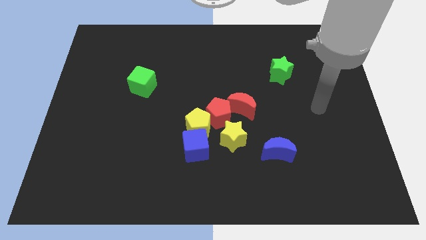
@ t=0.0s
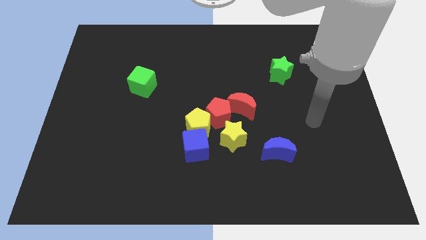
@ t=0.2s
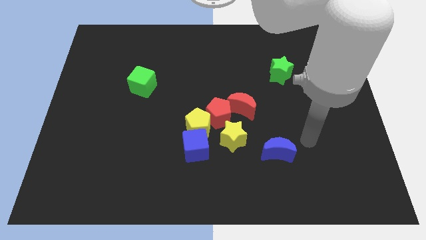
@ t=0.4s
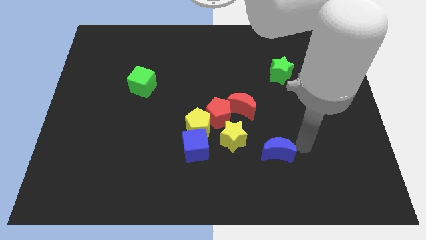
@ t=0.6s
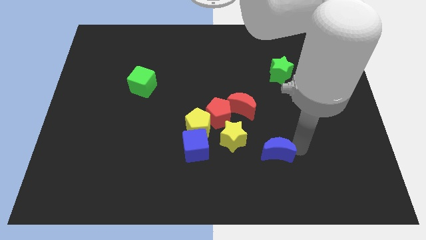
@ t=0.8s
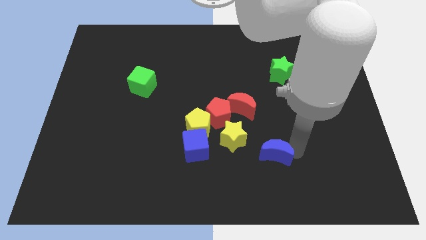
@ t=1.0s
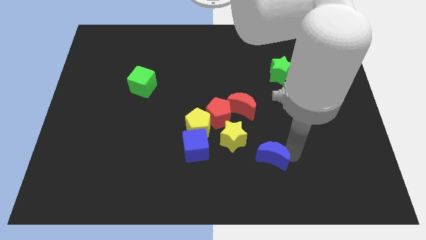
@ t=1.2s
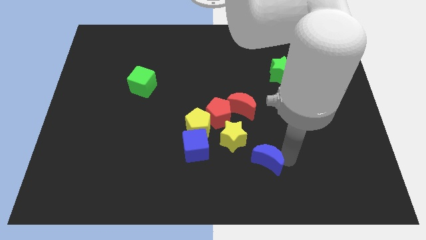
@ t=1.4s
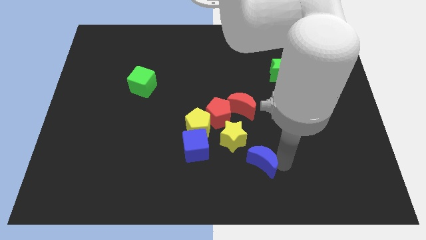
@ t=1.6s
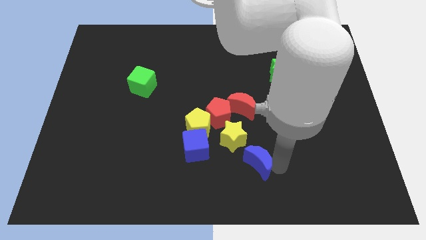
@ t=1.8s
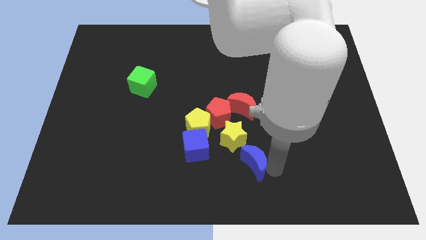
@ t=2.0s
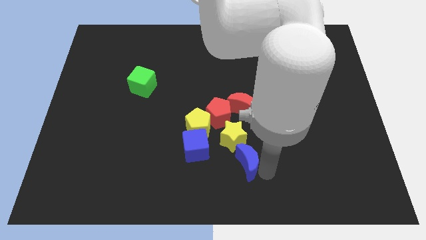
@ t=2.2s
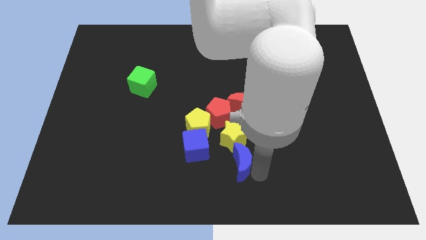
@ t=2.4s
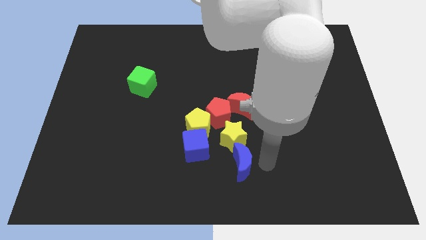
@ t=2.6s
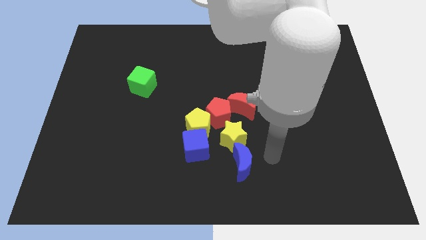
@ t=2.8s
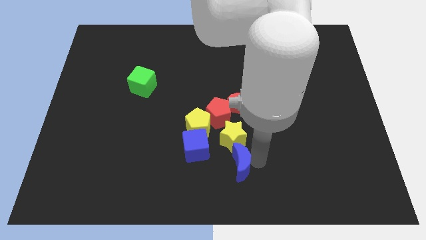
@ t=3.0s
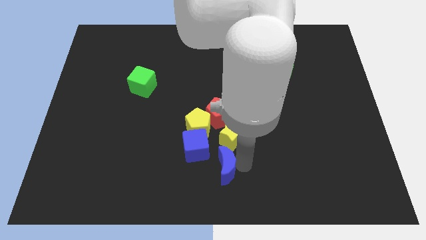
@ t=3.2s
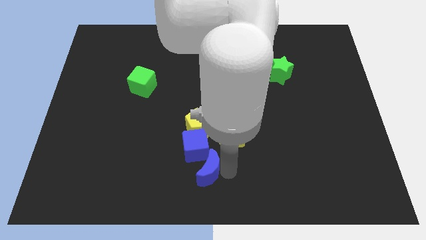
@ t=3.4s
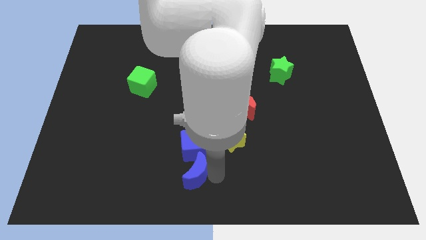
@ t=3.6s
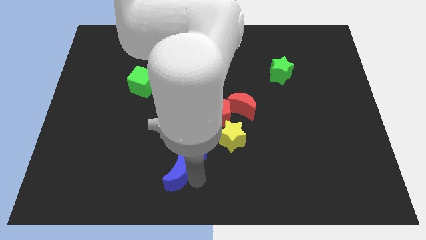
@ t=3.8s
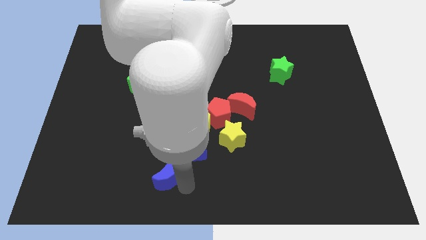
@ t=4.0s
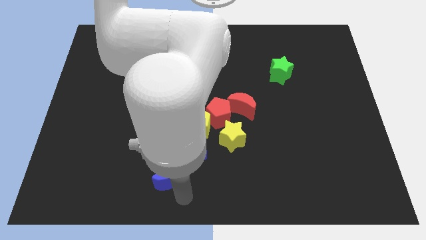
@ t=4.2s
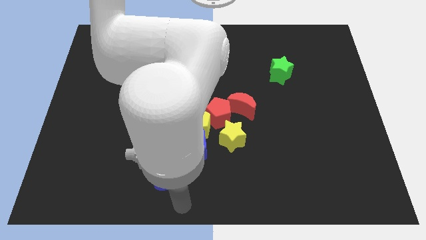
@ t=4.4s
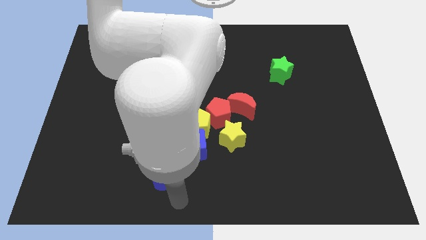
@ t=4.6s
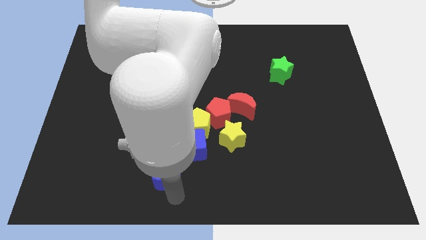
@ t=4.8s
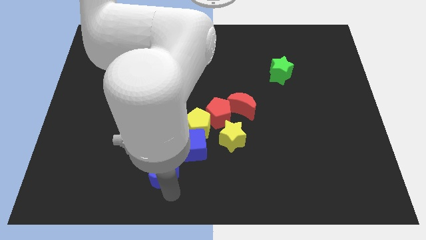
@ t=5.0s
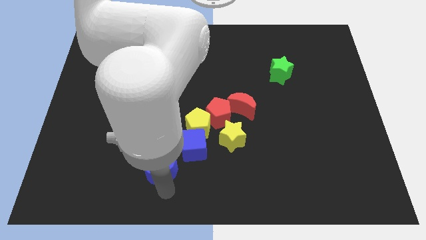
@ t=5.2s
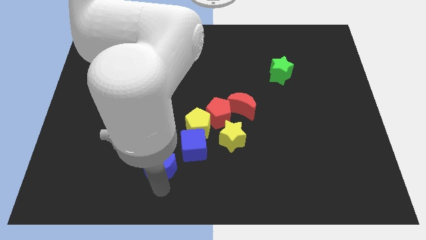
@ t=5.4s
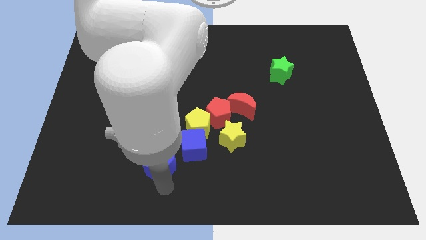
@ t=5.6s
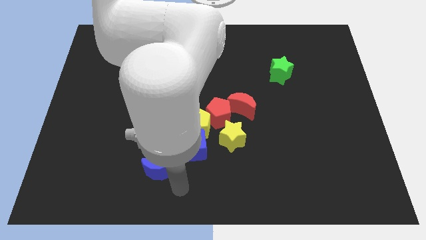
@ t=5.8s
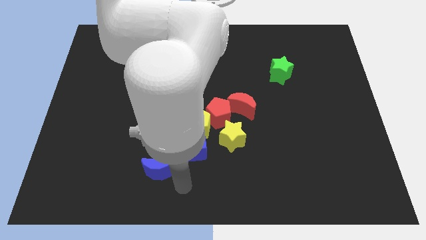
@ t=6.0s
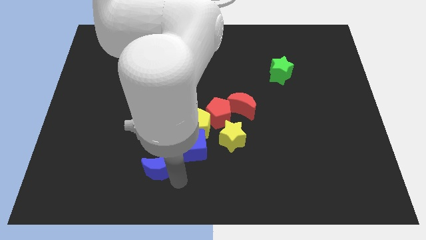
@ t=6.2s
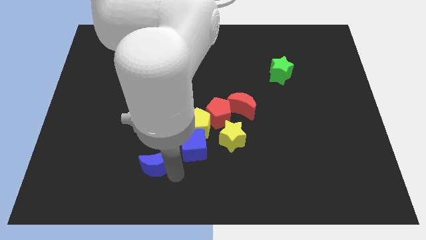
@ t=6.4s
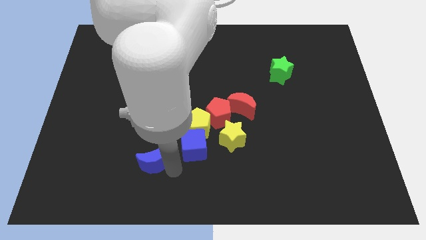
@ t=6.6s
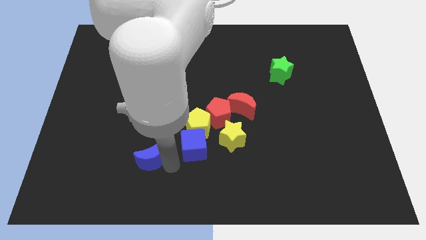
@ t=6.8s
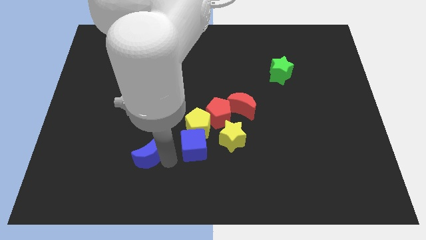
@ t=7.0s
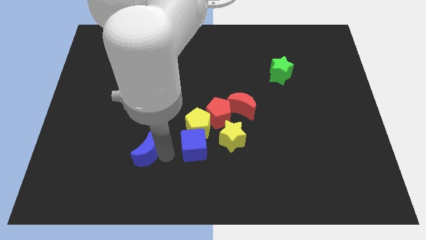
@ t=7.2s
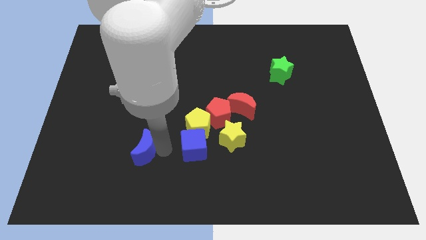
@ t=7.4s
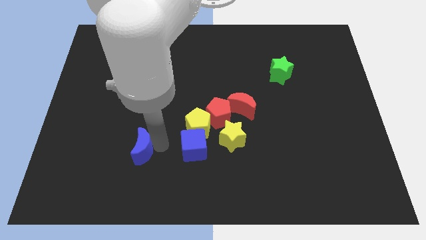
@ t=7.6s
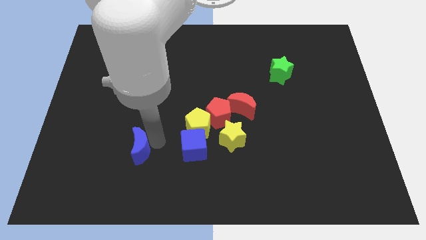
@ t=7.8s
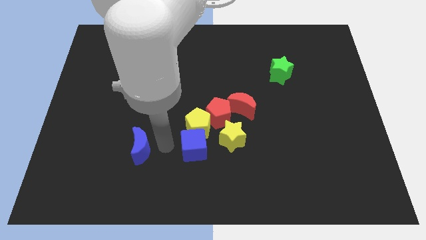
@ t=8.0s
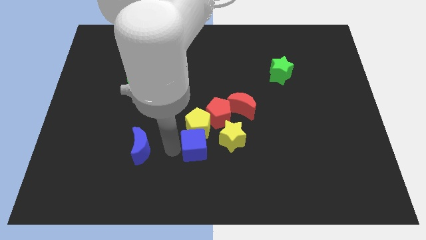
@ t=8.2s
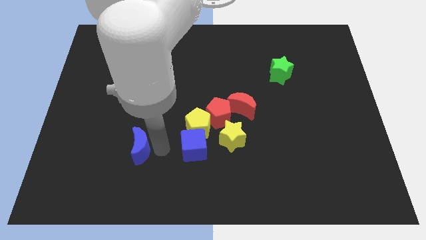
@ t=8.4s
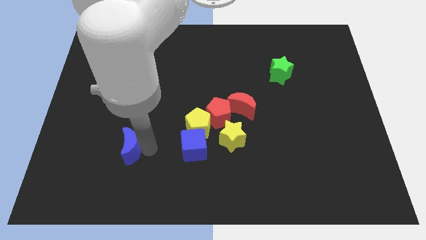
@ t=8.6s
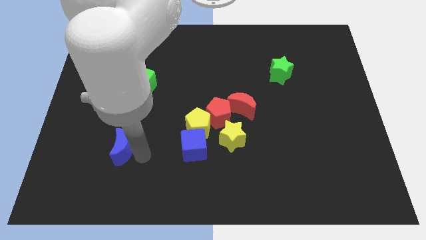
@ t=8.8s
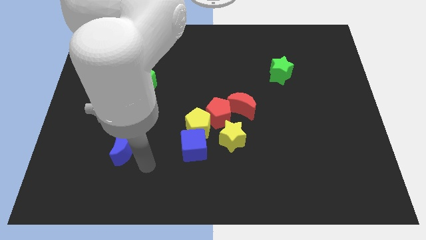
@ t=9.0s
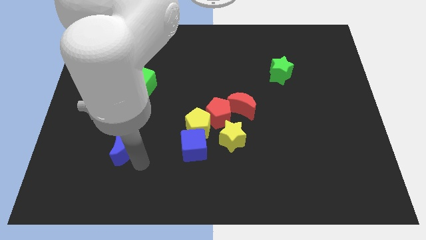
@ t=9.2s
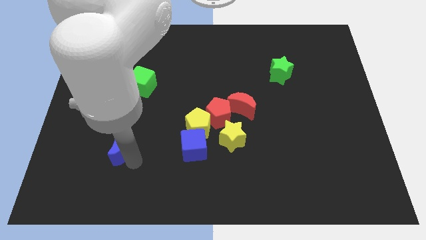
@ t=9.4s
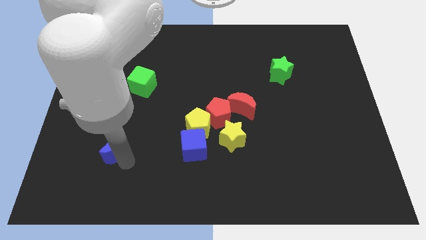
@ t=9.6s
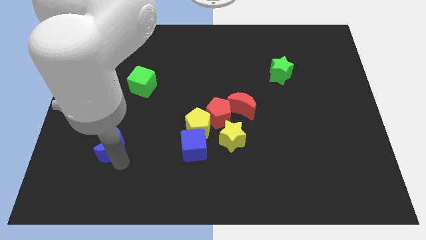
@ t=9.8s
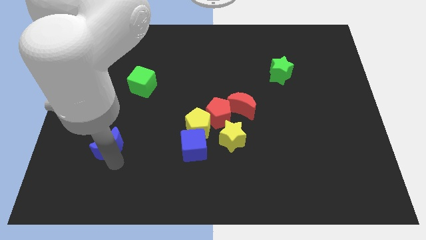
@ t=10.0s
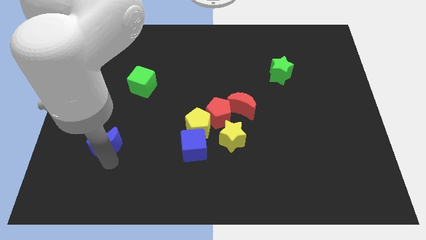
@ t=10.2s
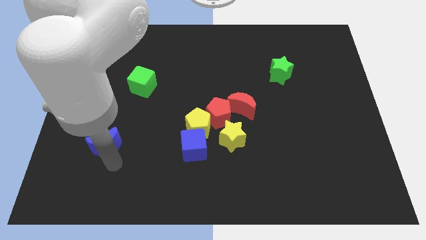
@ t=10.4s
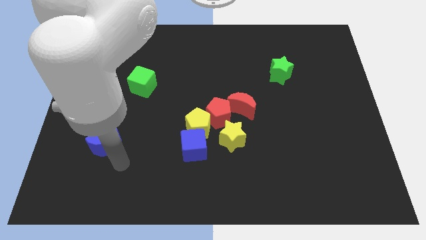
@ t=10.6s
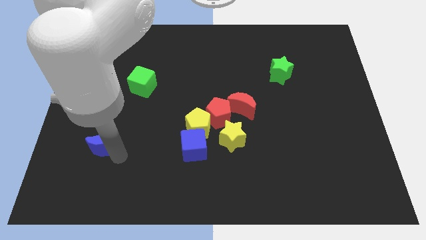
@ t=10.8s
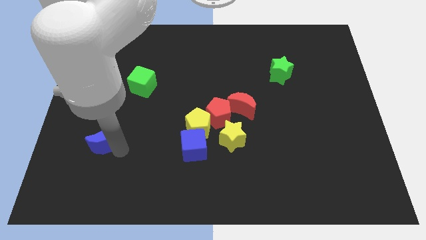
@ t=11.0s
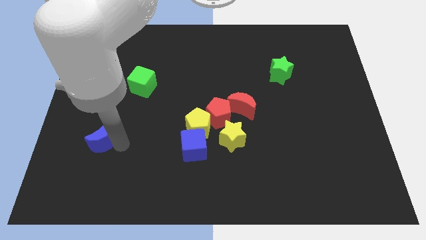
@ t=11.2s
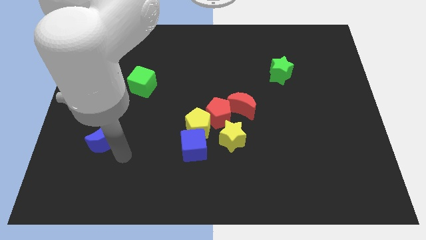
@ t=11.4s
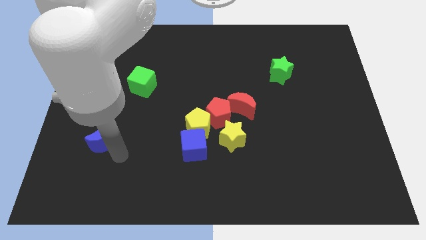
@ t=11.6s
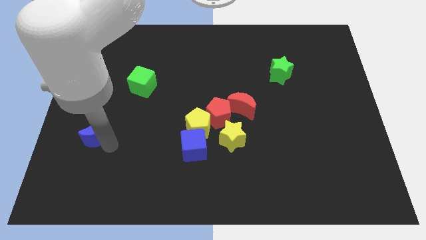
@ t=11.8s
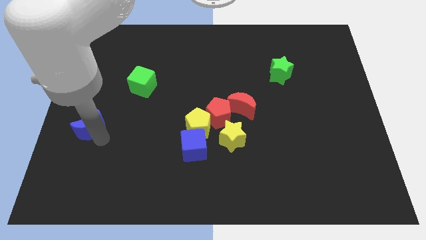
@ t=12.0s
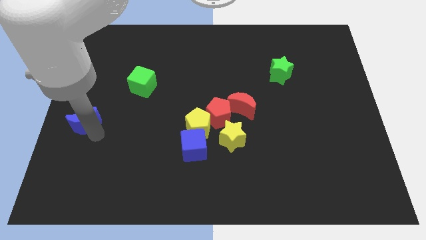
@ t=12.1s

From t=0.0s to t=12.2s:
push the blue moon to the left side

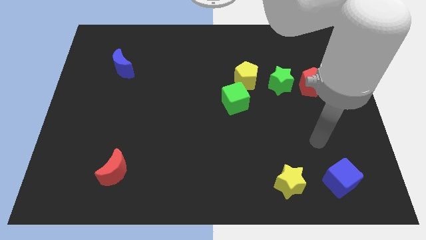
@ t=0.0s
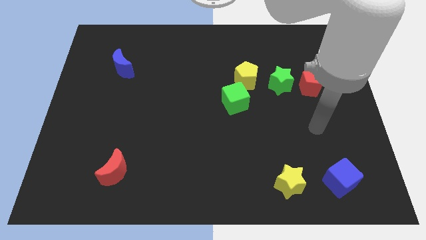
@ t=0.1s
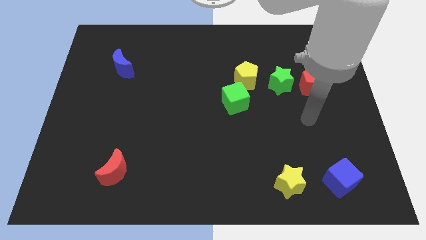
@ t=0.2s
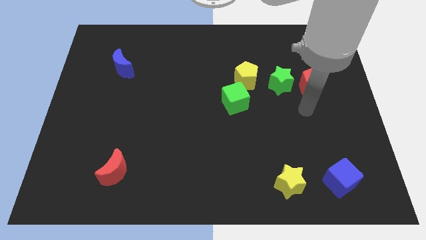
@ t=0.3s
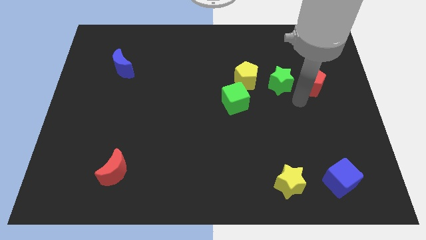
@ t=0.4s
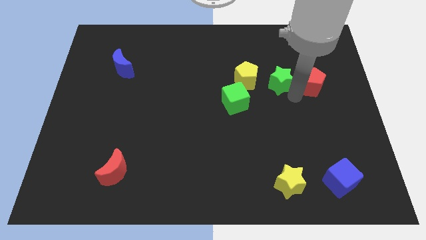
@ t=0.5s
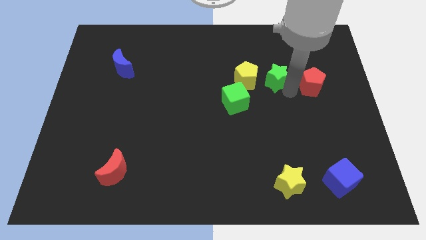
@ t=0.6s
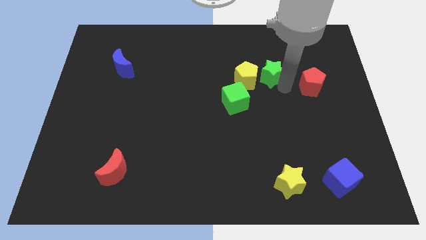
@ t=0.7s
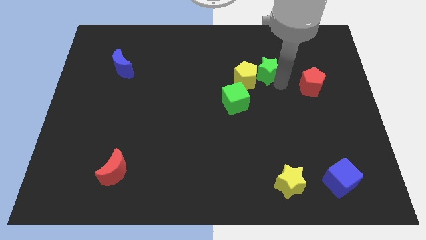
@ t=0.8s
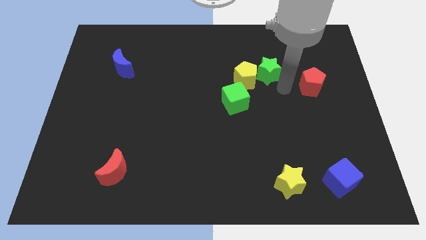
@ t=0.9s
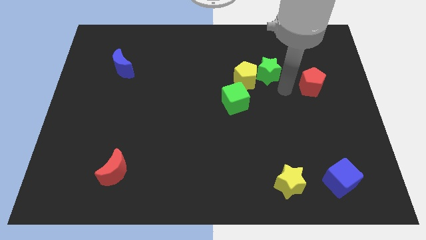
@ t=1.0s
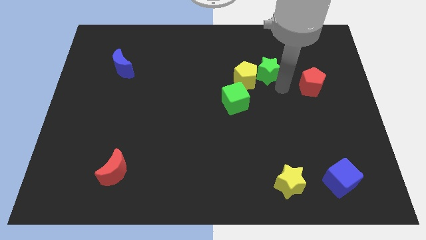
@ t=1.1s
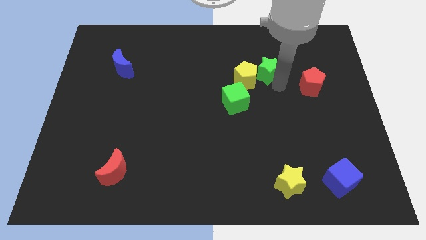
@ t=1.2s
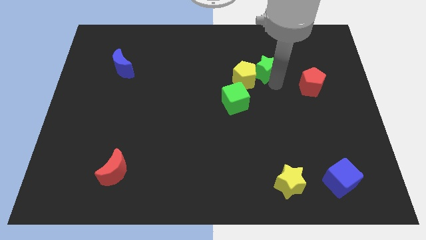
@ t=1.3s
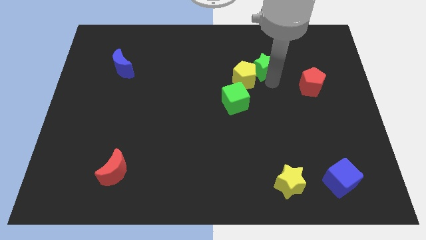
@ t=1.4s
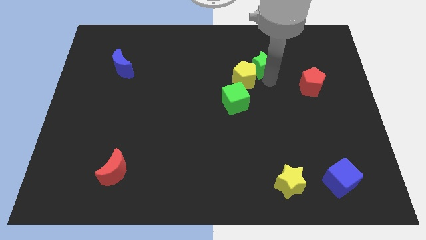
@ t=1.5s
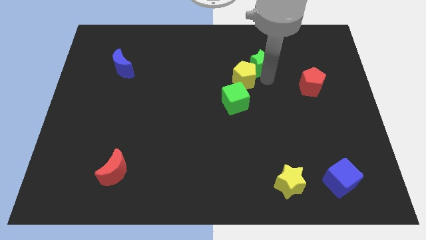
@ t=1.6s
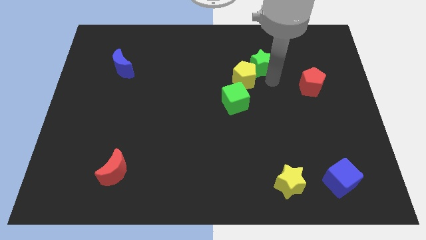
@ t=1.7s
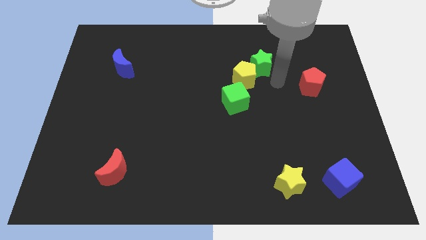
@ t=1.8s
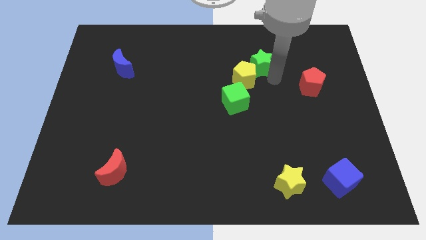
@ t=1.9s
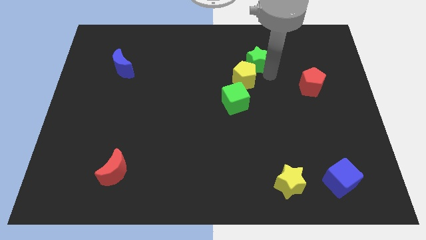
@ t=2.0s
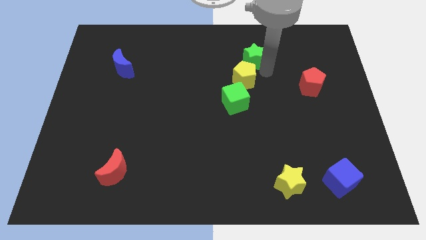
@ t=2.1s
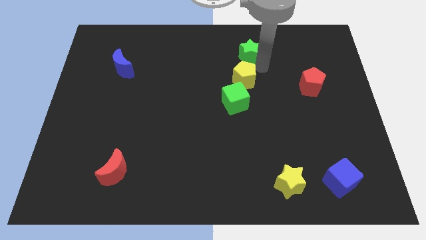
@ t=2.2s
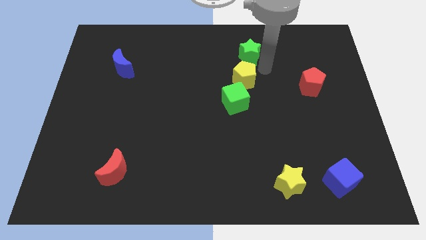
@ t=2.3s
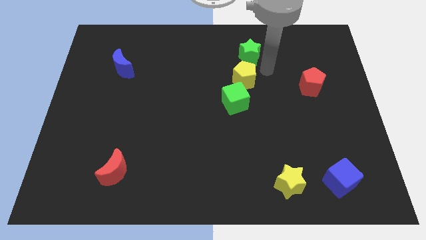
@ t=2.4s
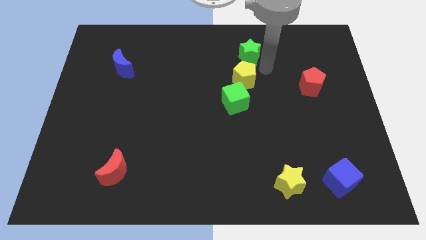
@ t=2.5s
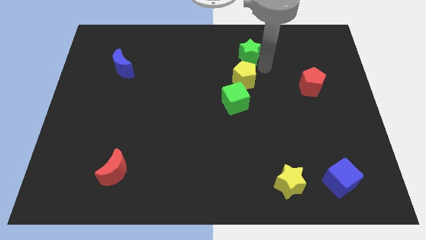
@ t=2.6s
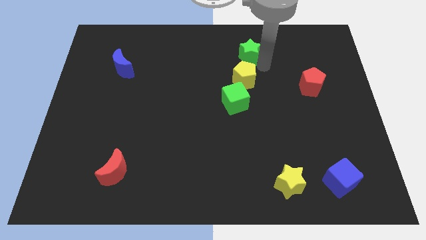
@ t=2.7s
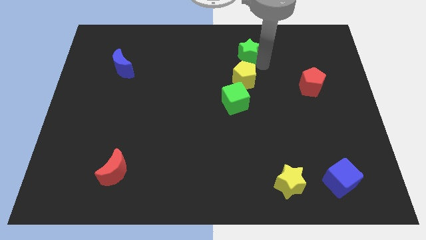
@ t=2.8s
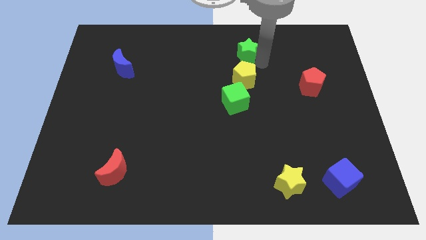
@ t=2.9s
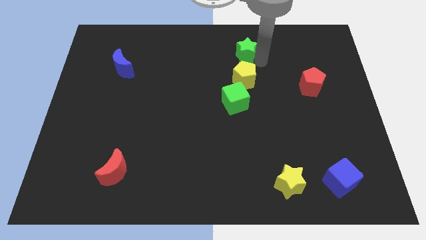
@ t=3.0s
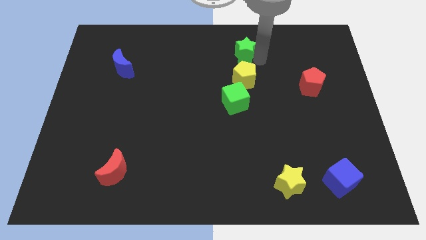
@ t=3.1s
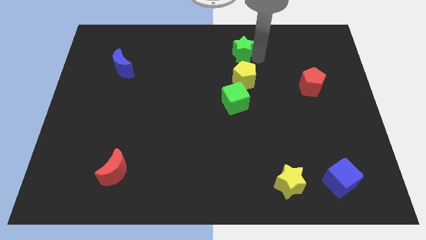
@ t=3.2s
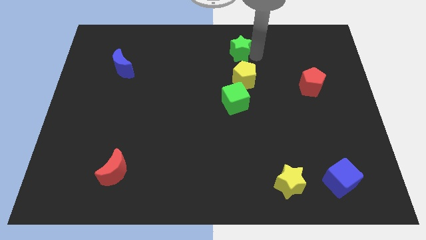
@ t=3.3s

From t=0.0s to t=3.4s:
put the green star to the top
